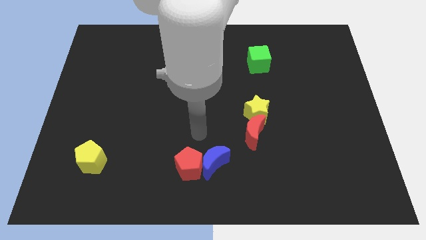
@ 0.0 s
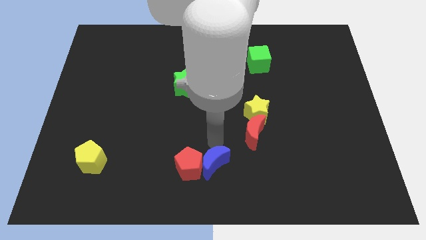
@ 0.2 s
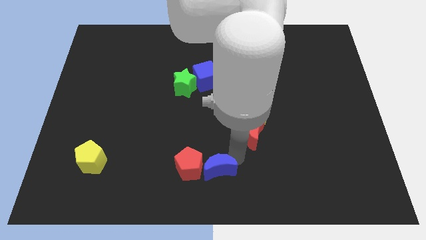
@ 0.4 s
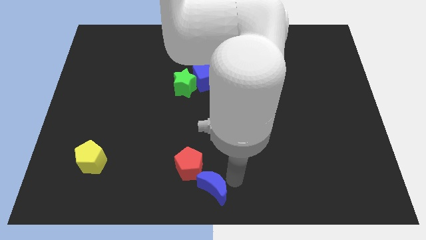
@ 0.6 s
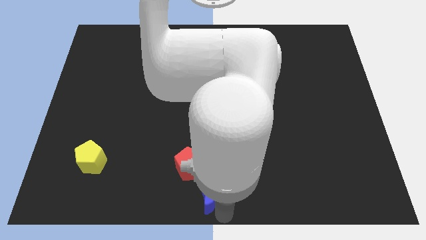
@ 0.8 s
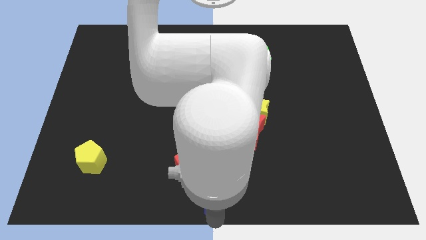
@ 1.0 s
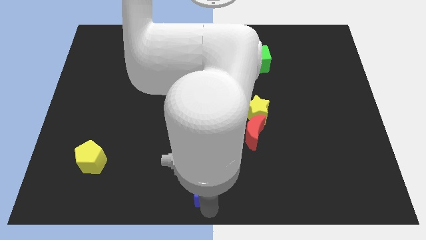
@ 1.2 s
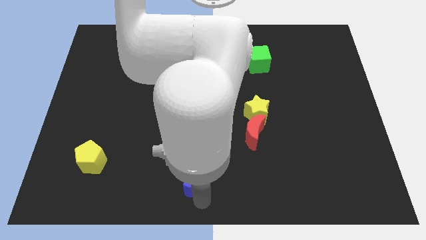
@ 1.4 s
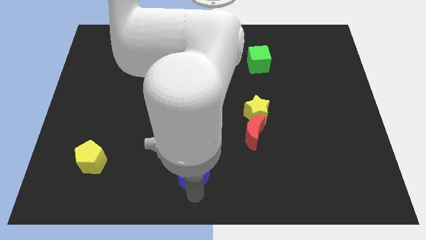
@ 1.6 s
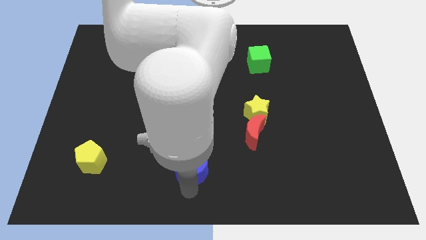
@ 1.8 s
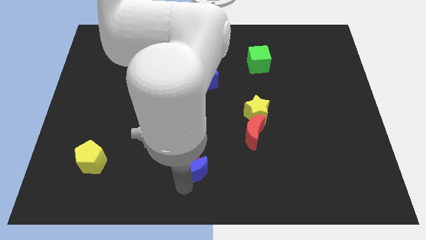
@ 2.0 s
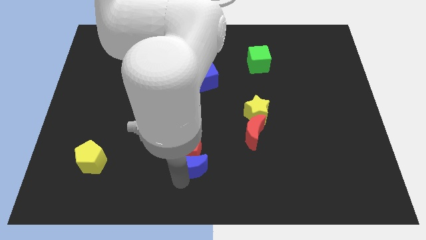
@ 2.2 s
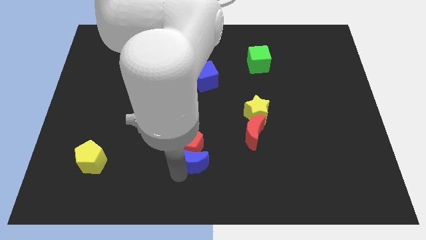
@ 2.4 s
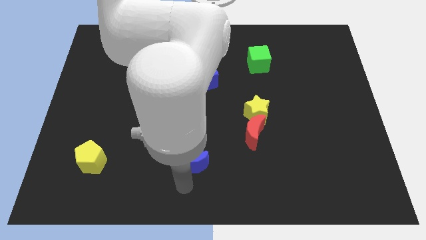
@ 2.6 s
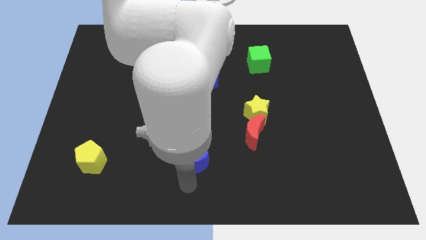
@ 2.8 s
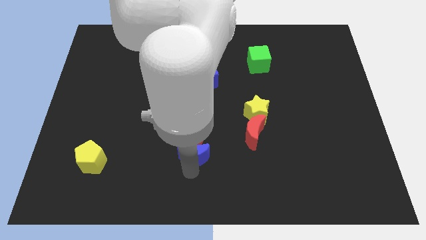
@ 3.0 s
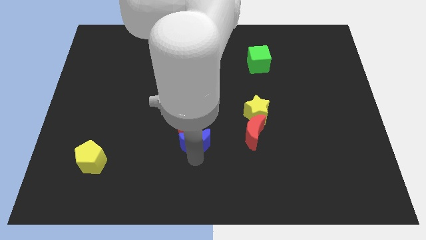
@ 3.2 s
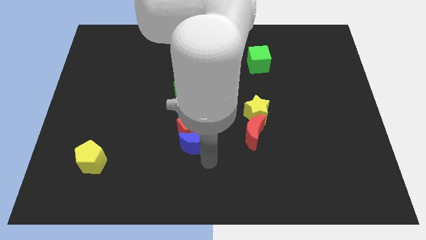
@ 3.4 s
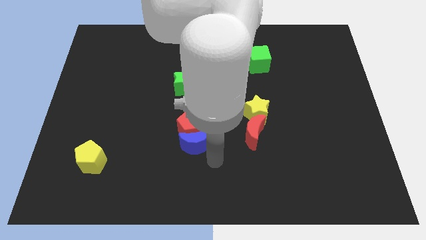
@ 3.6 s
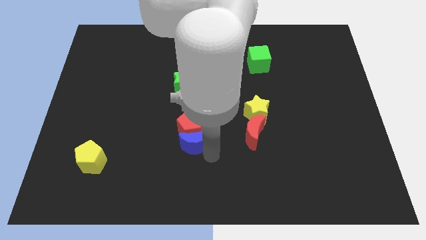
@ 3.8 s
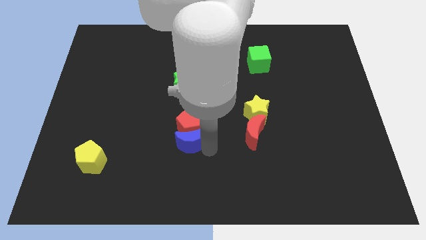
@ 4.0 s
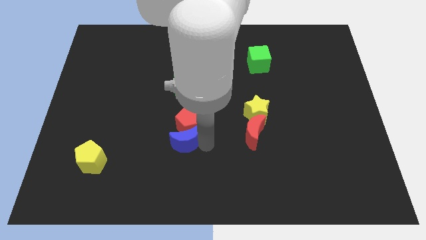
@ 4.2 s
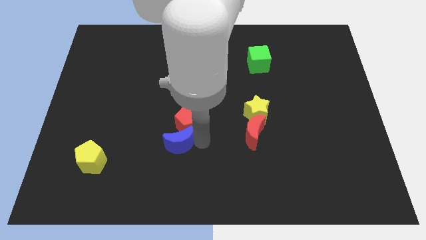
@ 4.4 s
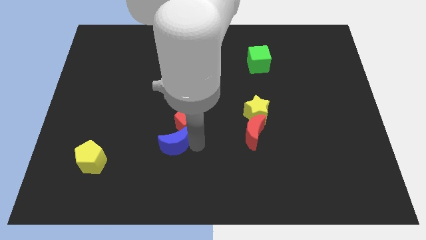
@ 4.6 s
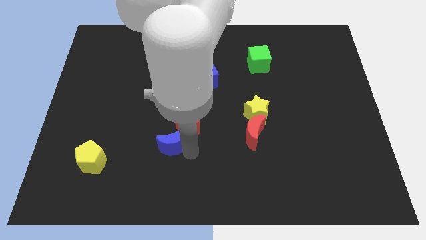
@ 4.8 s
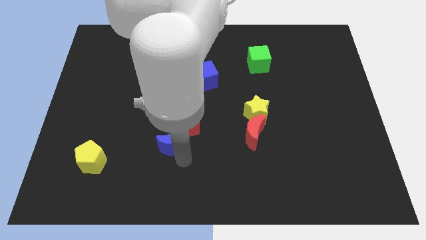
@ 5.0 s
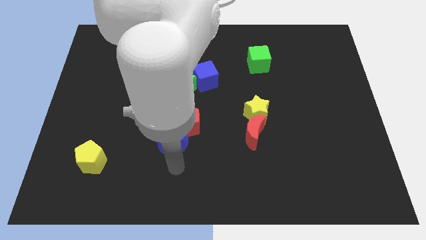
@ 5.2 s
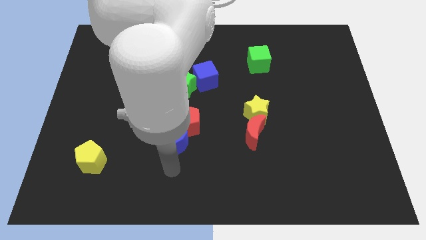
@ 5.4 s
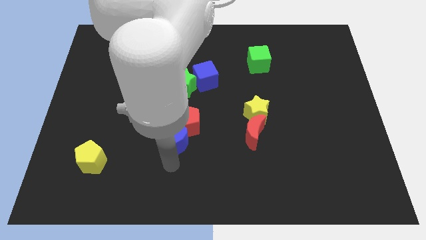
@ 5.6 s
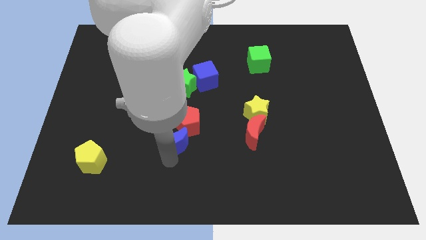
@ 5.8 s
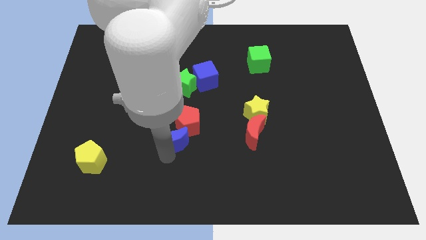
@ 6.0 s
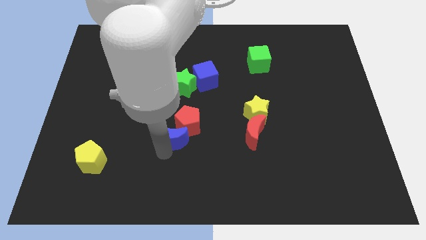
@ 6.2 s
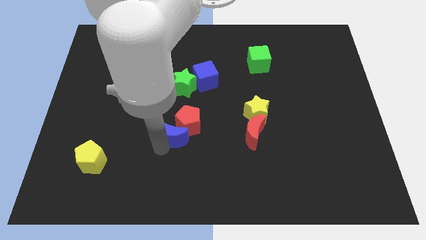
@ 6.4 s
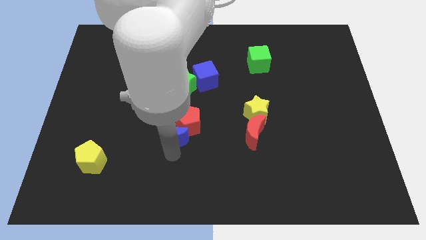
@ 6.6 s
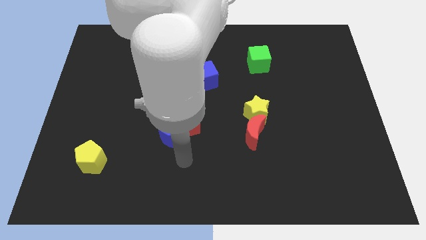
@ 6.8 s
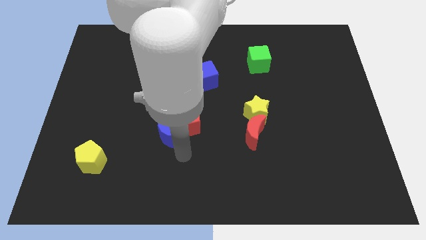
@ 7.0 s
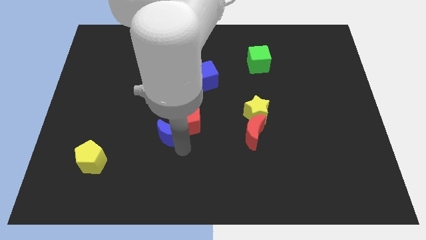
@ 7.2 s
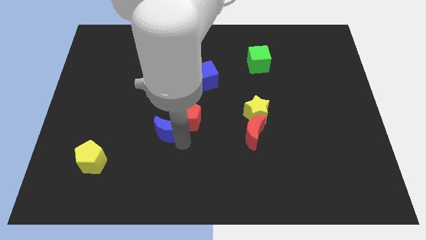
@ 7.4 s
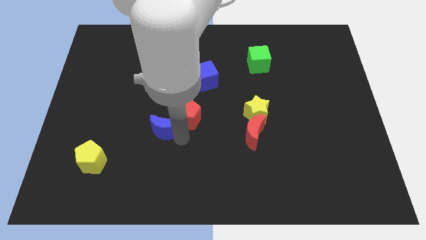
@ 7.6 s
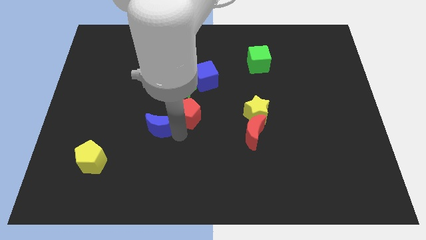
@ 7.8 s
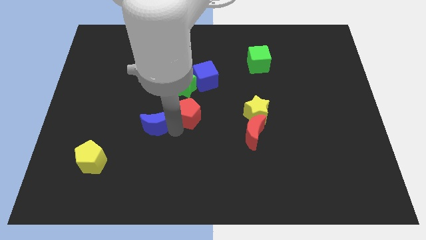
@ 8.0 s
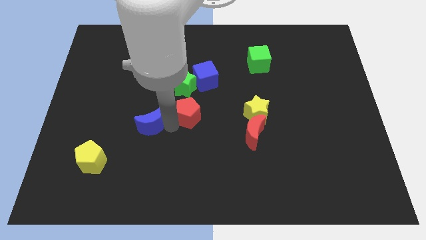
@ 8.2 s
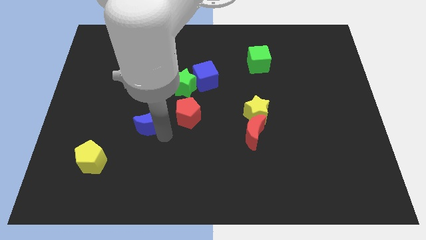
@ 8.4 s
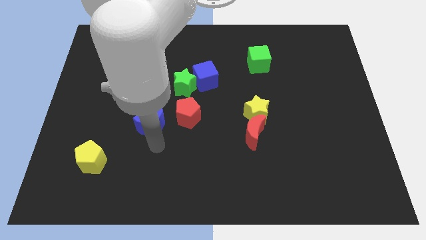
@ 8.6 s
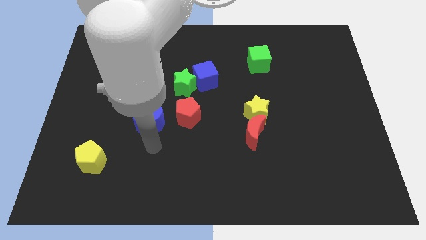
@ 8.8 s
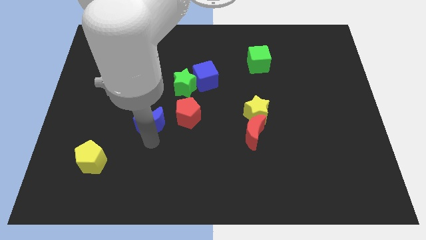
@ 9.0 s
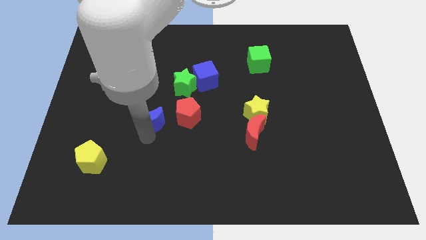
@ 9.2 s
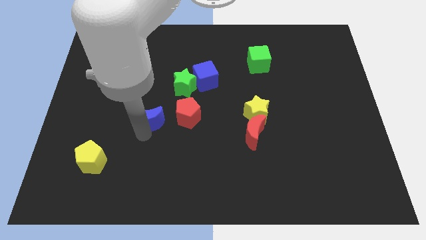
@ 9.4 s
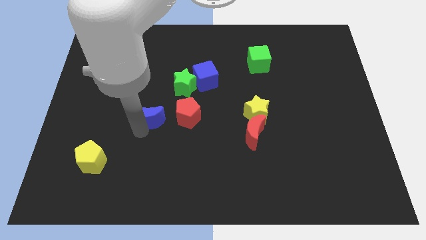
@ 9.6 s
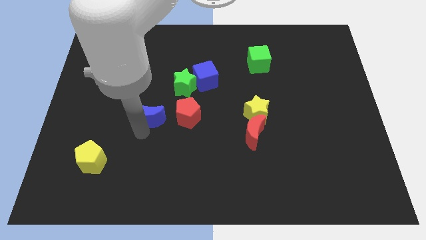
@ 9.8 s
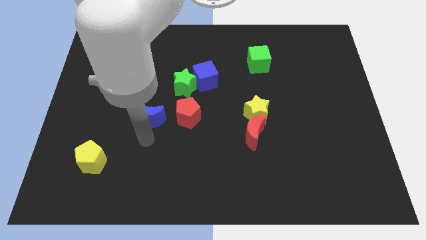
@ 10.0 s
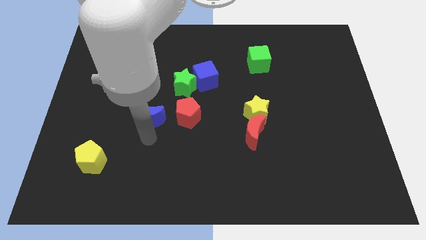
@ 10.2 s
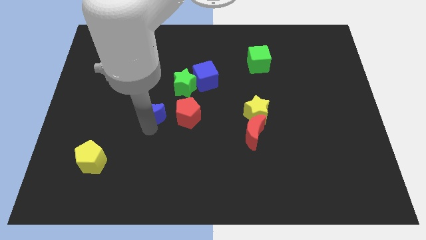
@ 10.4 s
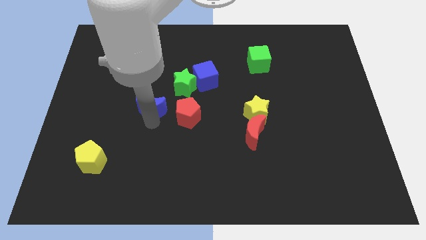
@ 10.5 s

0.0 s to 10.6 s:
move the blue moon up and to the left

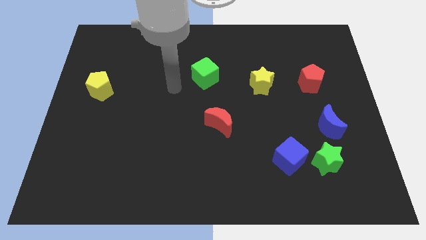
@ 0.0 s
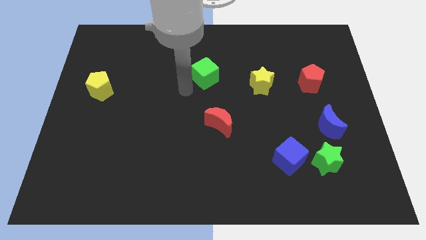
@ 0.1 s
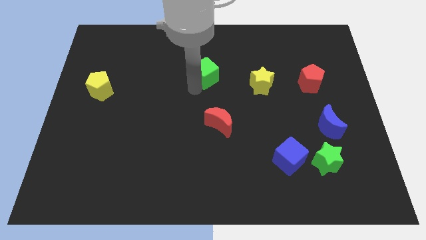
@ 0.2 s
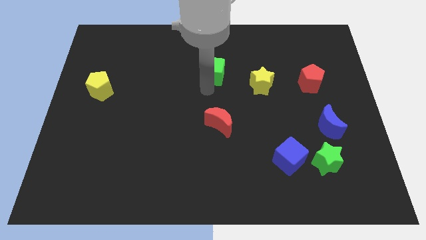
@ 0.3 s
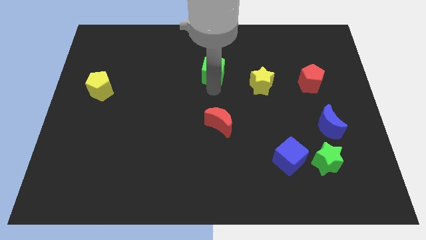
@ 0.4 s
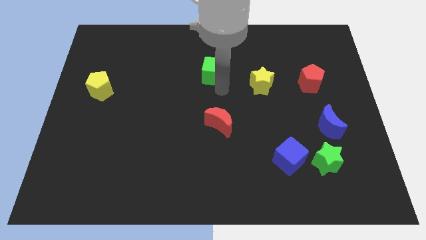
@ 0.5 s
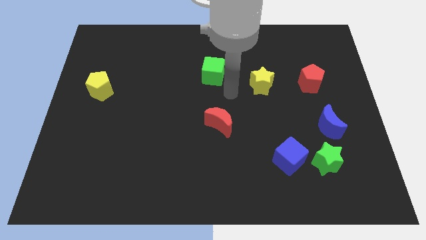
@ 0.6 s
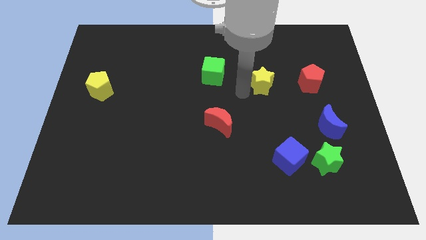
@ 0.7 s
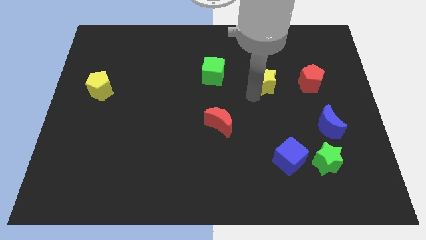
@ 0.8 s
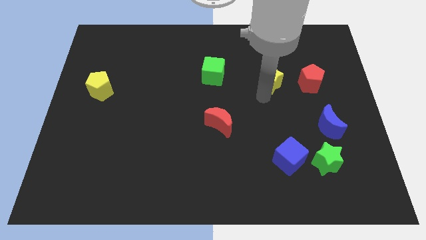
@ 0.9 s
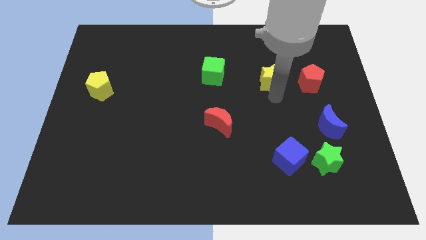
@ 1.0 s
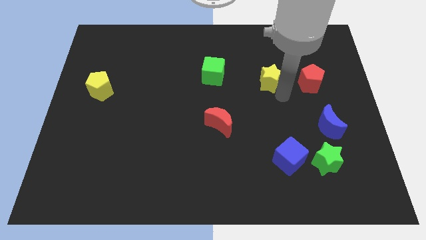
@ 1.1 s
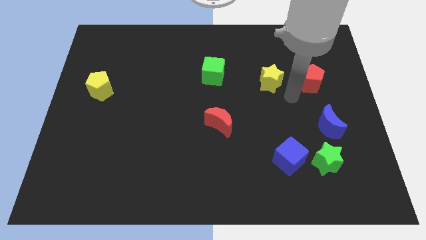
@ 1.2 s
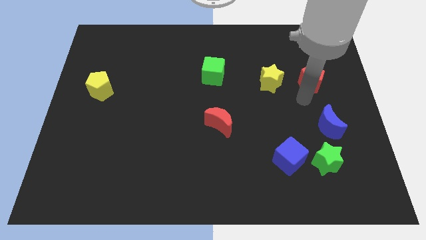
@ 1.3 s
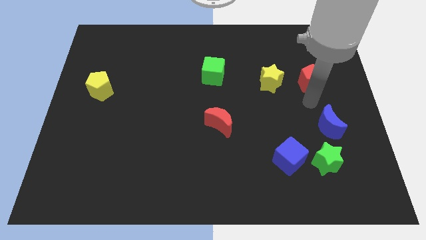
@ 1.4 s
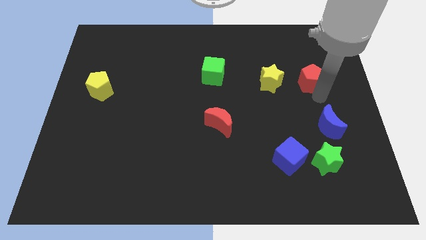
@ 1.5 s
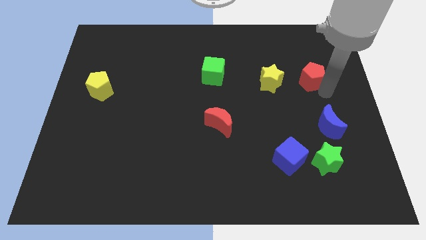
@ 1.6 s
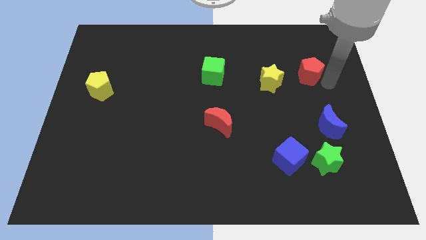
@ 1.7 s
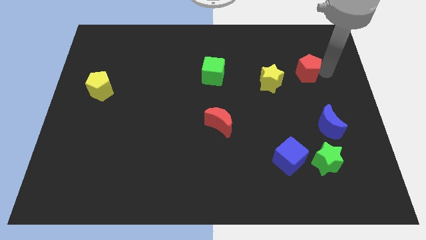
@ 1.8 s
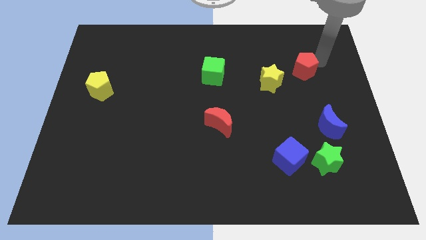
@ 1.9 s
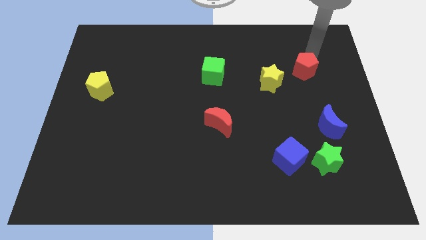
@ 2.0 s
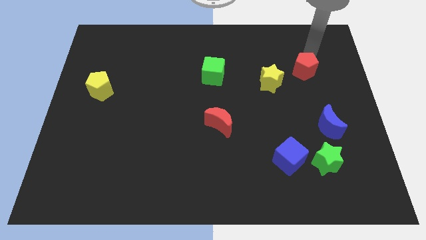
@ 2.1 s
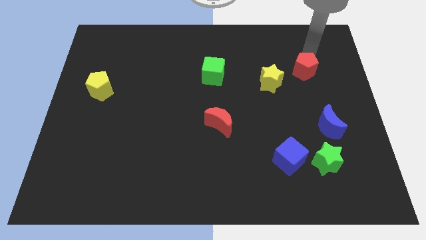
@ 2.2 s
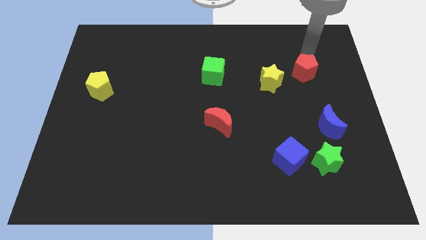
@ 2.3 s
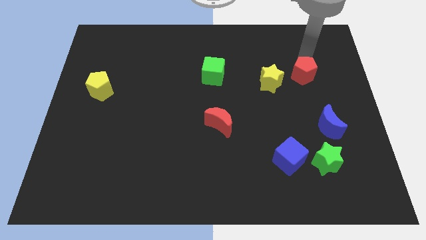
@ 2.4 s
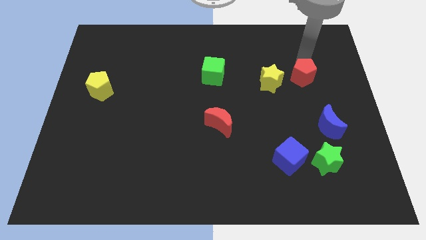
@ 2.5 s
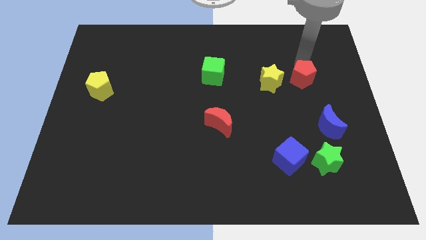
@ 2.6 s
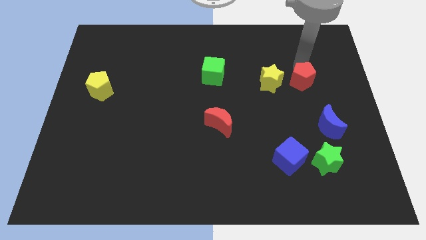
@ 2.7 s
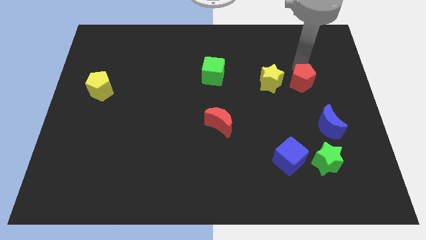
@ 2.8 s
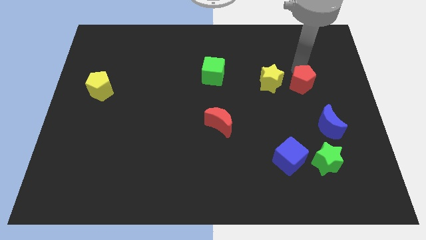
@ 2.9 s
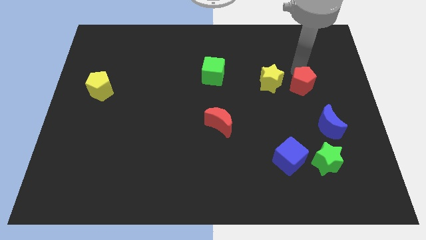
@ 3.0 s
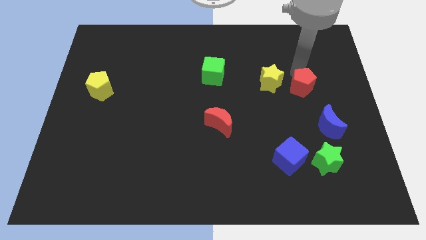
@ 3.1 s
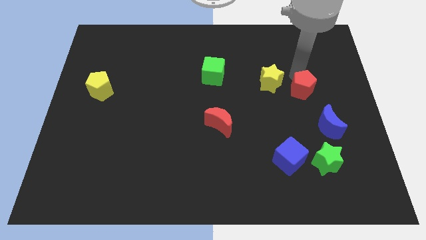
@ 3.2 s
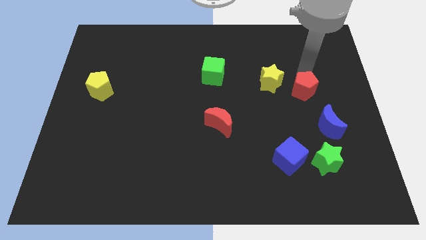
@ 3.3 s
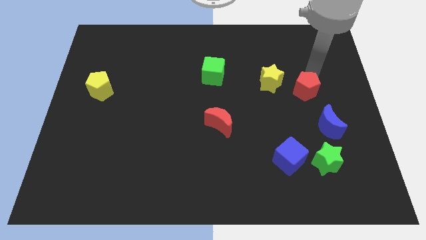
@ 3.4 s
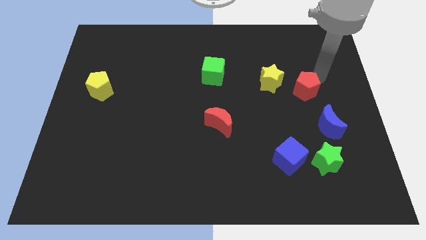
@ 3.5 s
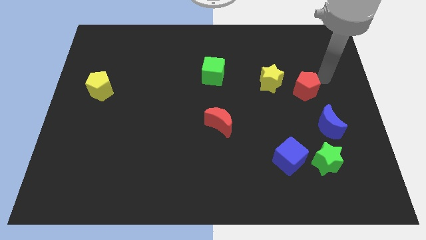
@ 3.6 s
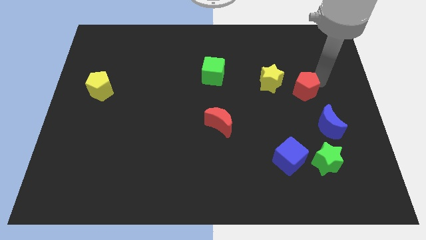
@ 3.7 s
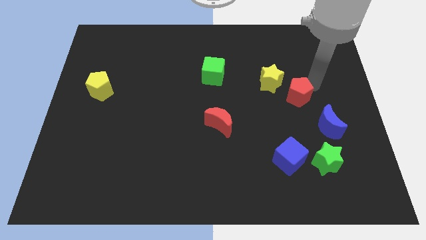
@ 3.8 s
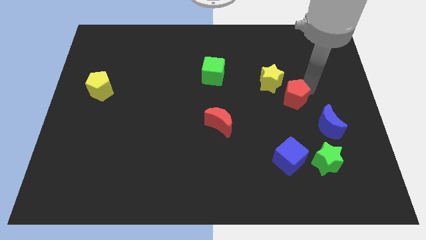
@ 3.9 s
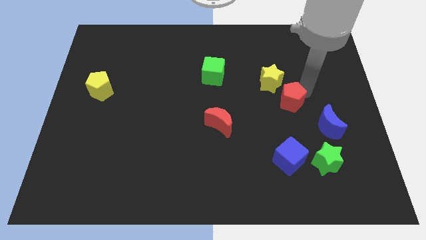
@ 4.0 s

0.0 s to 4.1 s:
move the red pentagon a bit diagonally downwards and to the left
